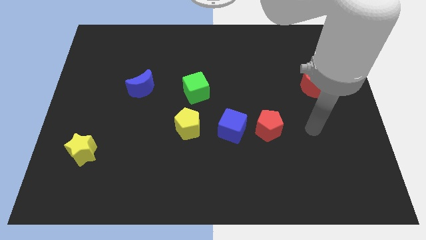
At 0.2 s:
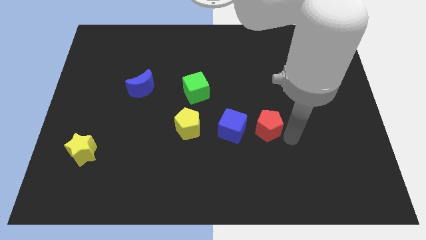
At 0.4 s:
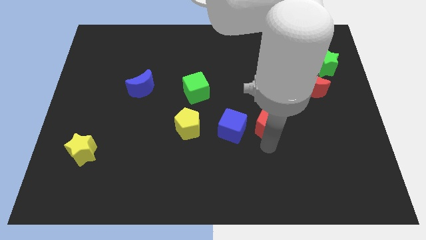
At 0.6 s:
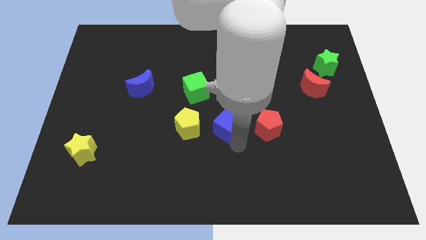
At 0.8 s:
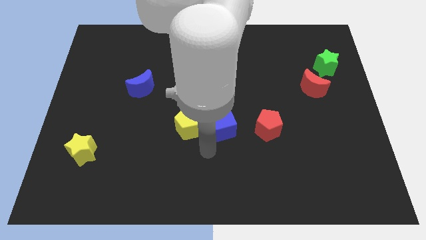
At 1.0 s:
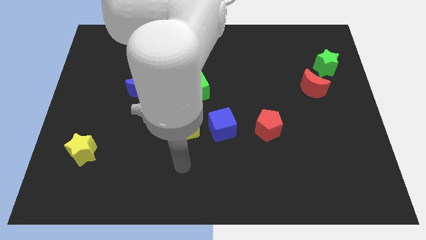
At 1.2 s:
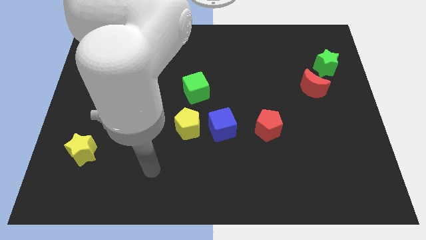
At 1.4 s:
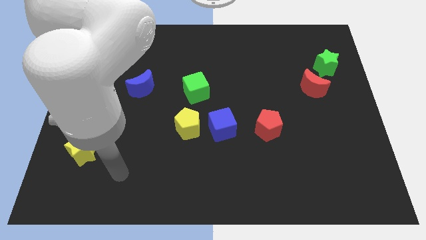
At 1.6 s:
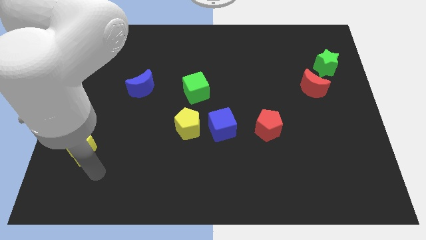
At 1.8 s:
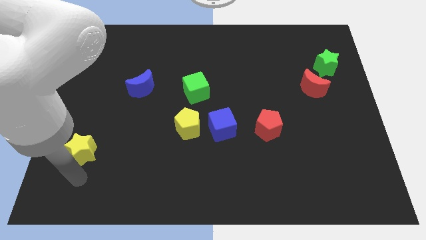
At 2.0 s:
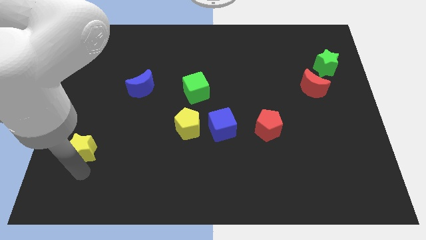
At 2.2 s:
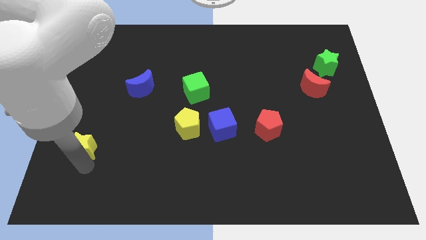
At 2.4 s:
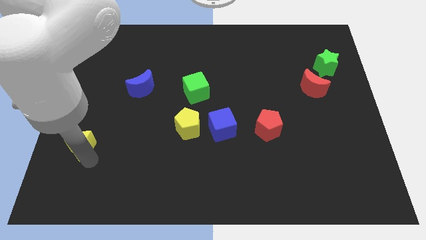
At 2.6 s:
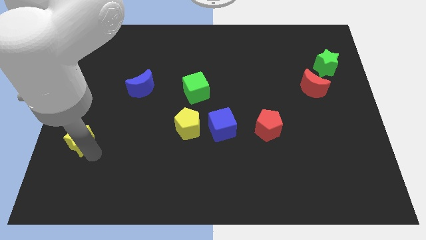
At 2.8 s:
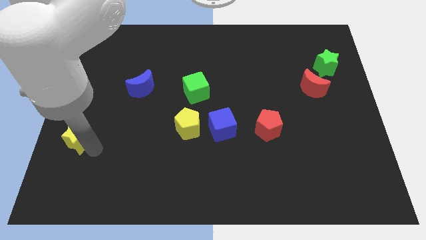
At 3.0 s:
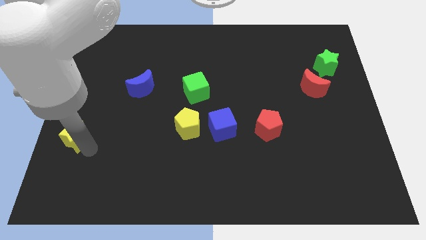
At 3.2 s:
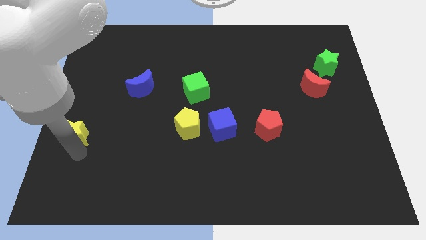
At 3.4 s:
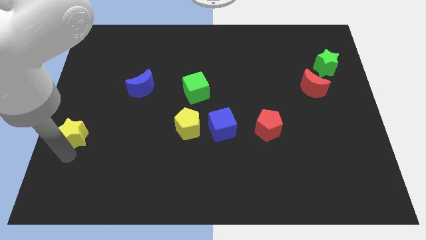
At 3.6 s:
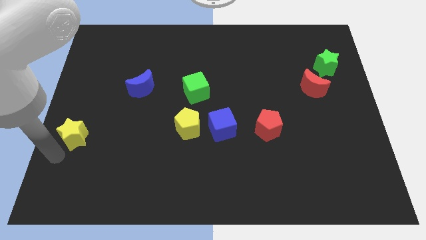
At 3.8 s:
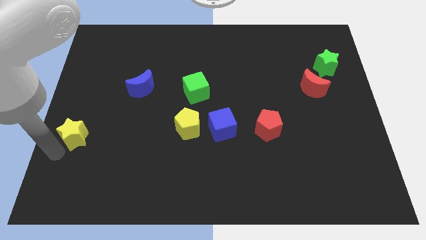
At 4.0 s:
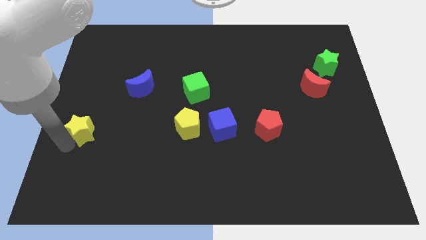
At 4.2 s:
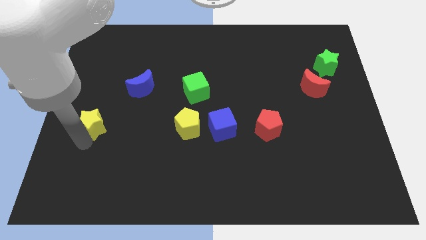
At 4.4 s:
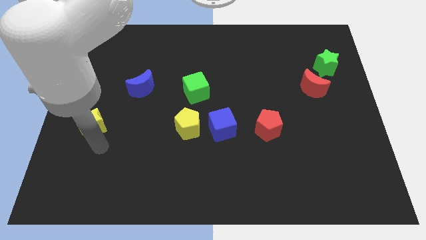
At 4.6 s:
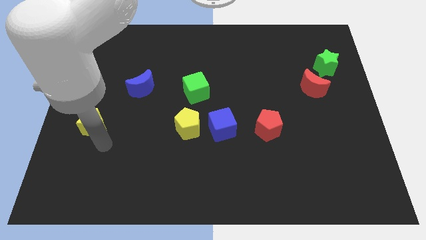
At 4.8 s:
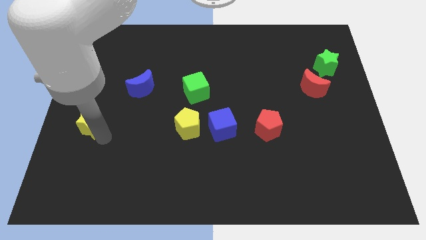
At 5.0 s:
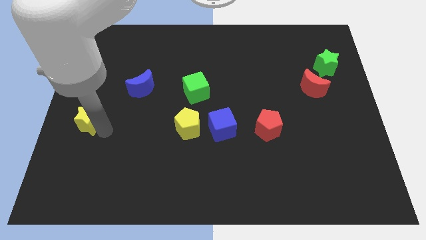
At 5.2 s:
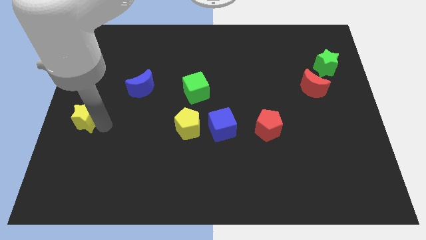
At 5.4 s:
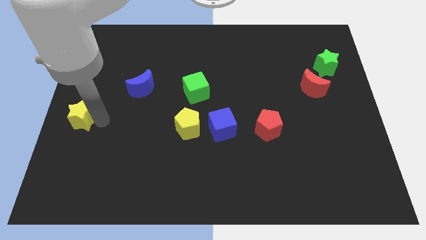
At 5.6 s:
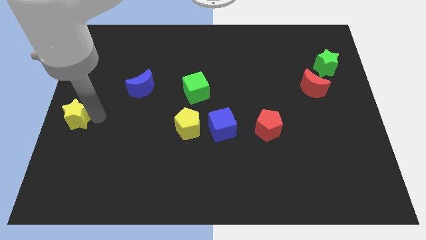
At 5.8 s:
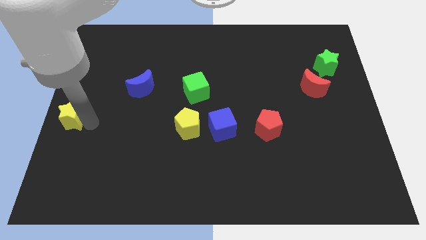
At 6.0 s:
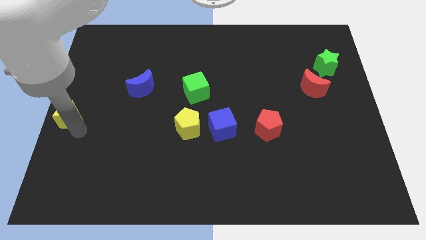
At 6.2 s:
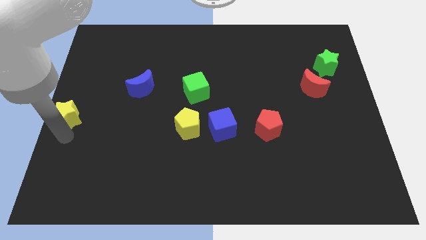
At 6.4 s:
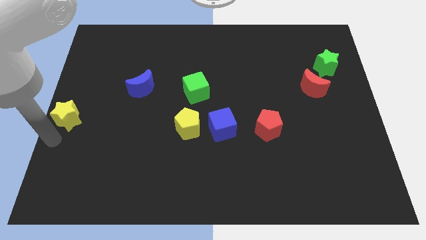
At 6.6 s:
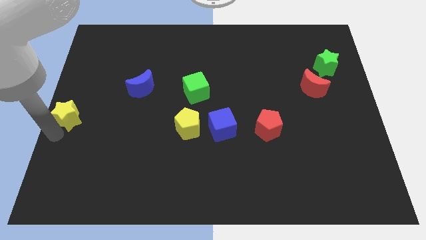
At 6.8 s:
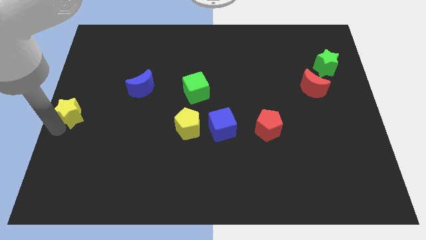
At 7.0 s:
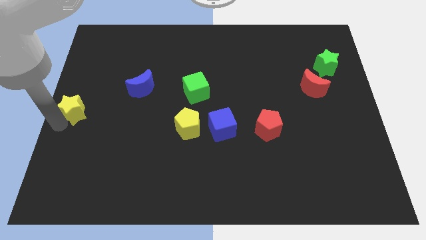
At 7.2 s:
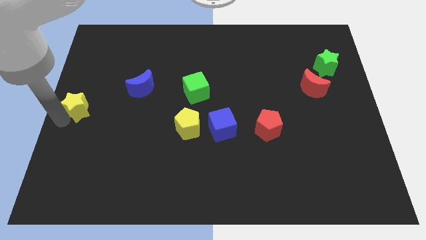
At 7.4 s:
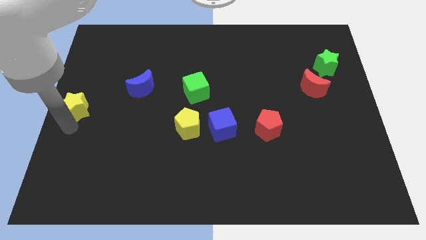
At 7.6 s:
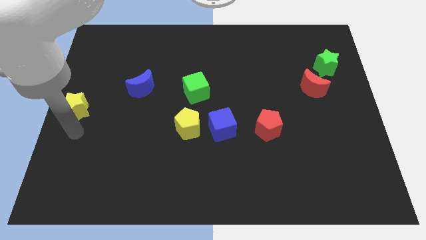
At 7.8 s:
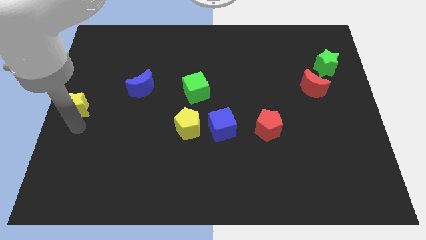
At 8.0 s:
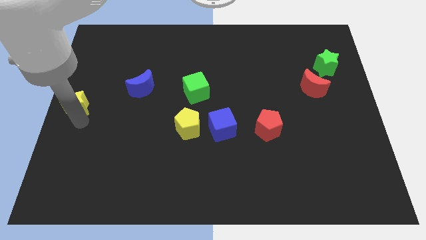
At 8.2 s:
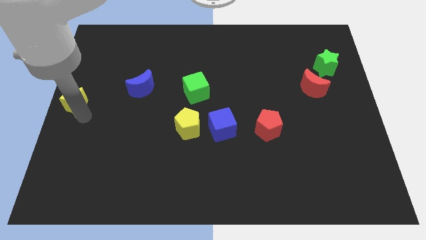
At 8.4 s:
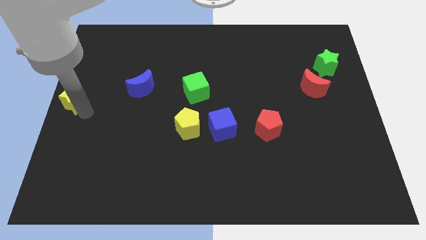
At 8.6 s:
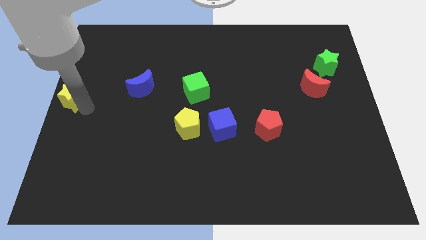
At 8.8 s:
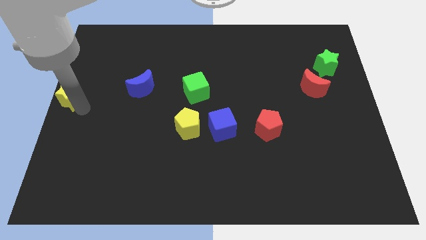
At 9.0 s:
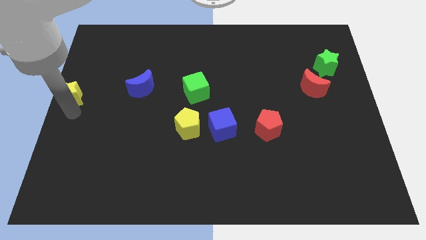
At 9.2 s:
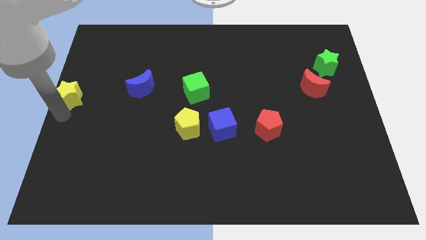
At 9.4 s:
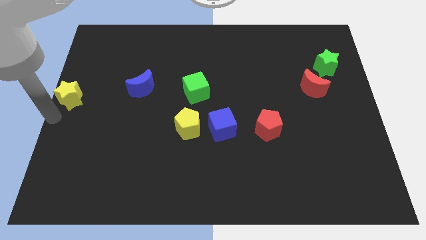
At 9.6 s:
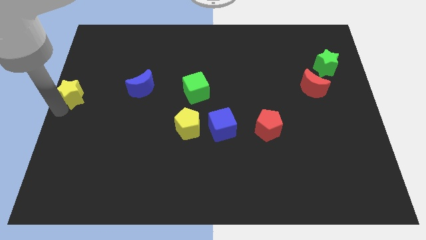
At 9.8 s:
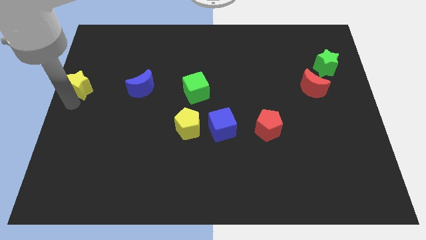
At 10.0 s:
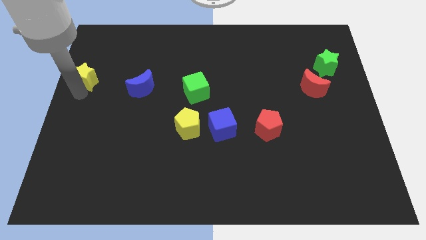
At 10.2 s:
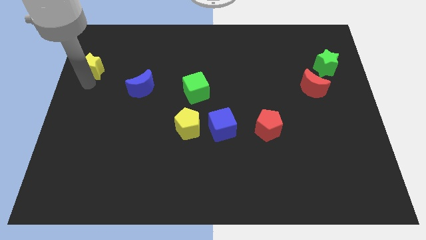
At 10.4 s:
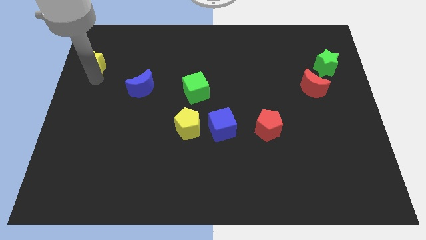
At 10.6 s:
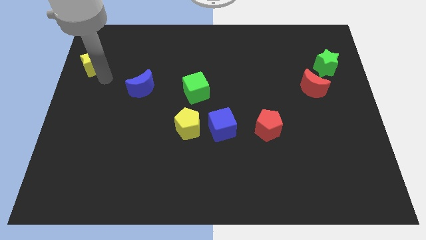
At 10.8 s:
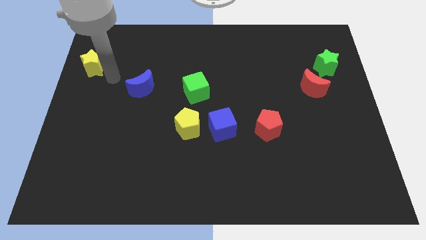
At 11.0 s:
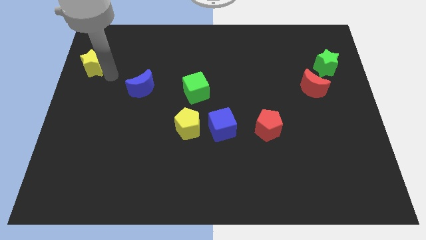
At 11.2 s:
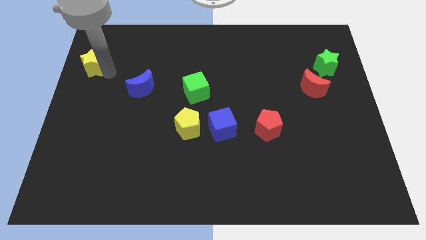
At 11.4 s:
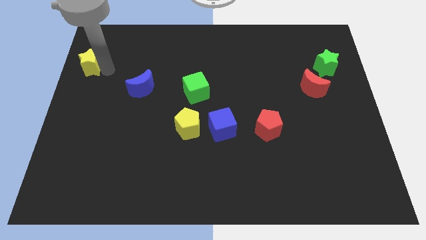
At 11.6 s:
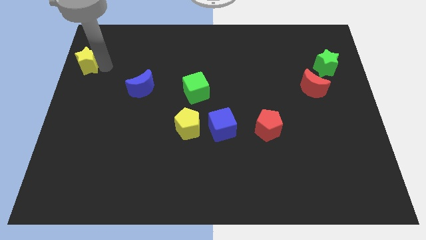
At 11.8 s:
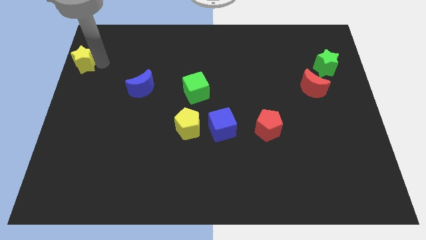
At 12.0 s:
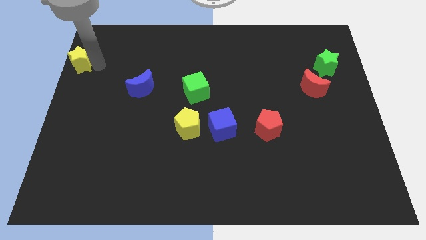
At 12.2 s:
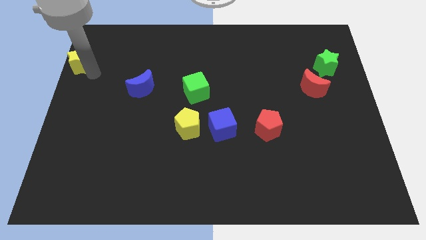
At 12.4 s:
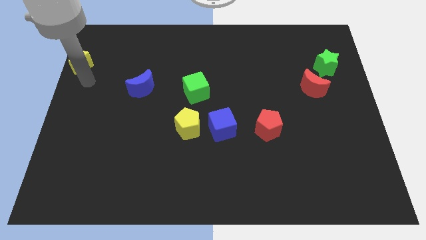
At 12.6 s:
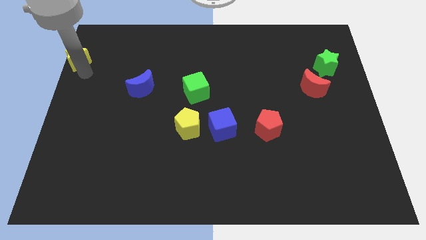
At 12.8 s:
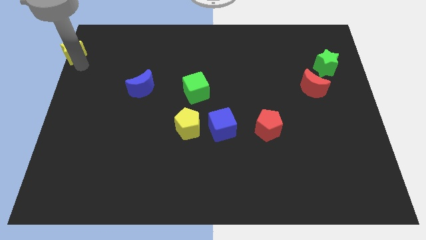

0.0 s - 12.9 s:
move the yellow star to the upper left corner
